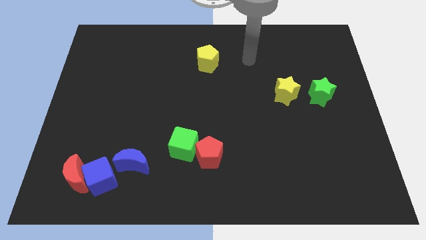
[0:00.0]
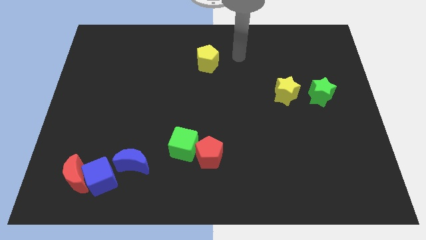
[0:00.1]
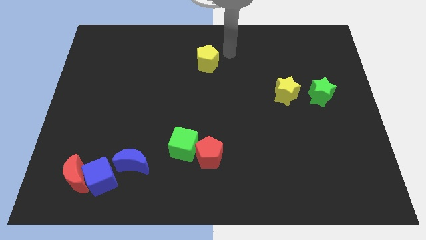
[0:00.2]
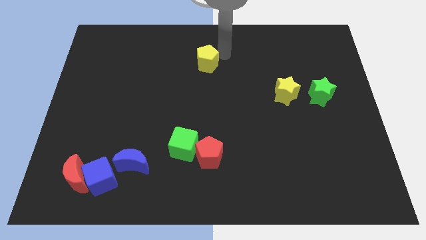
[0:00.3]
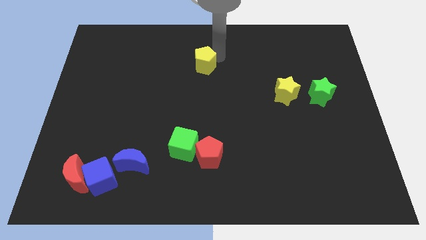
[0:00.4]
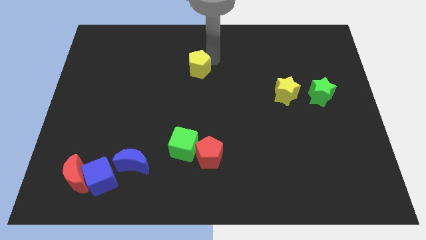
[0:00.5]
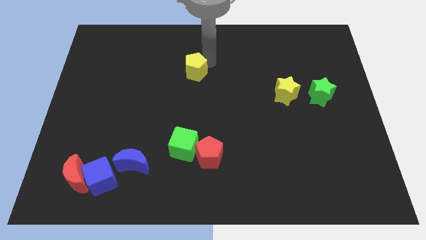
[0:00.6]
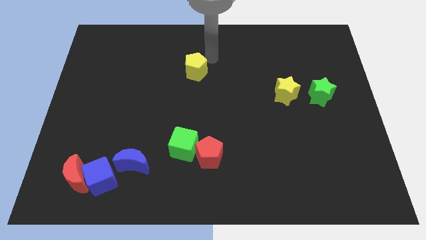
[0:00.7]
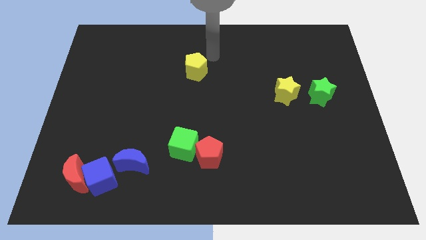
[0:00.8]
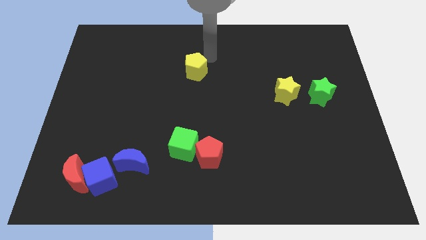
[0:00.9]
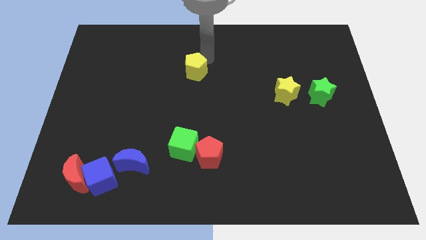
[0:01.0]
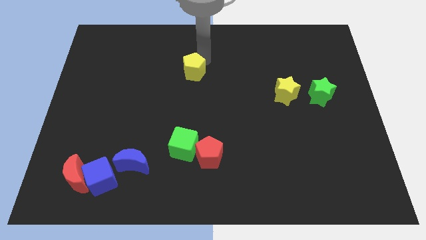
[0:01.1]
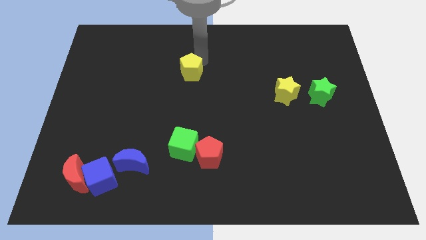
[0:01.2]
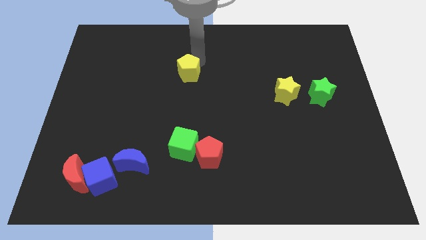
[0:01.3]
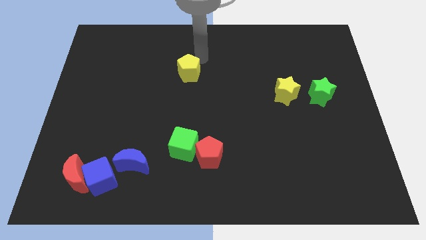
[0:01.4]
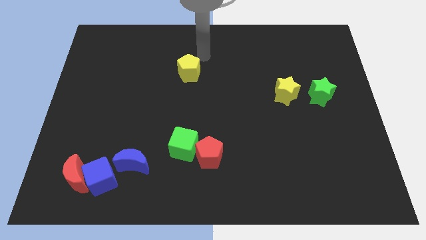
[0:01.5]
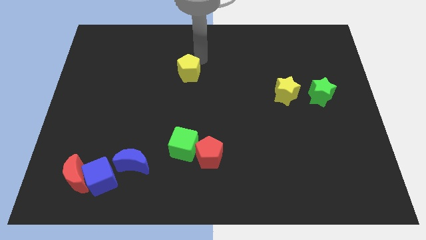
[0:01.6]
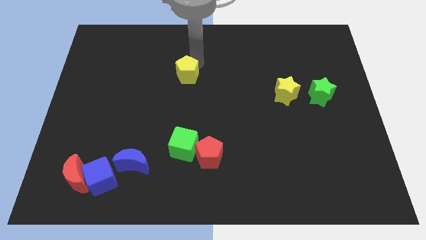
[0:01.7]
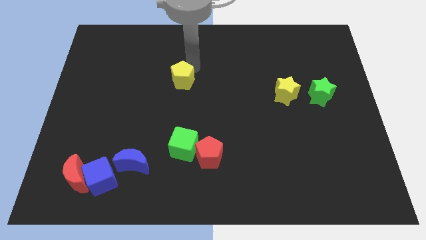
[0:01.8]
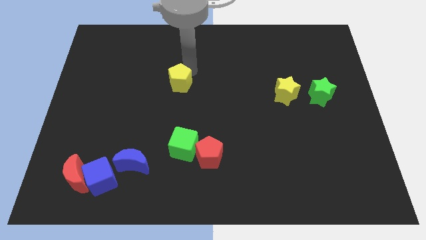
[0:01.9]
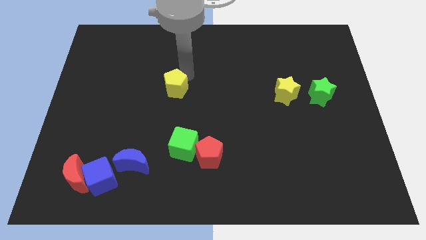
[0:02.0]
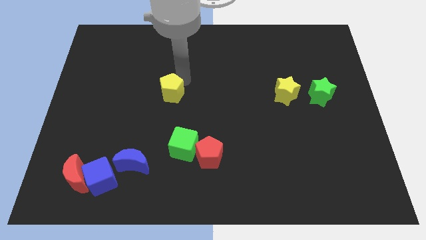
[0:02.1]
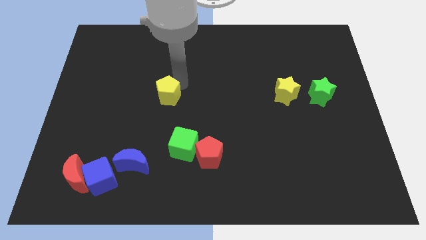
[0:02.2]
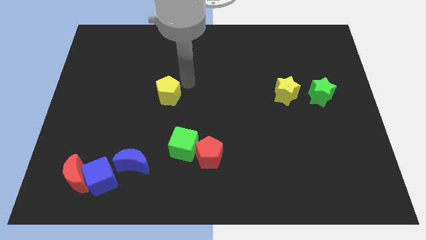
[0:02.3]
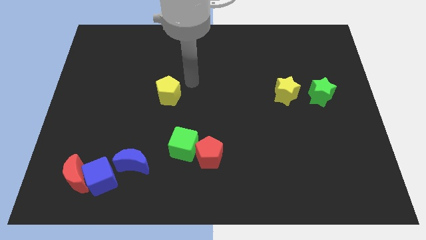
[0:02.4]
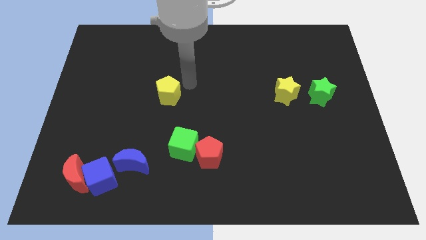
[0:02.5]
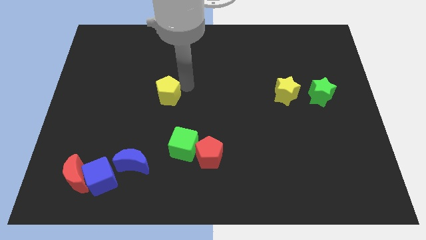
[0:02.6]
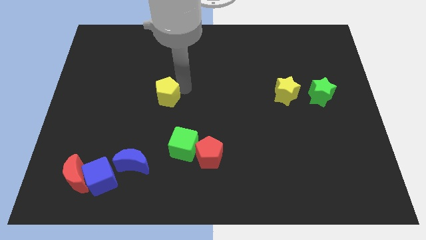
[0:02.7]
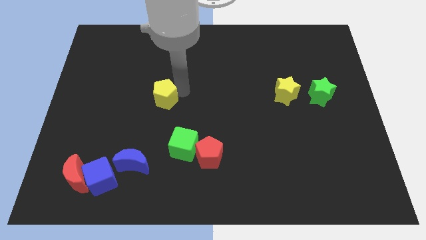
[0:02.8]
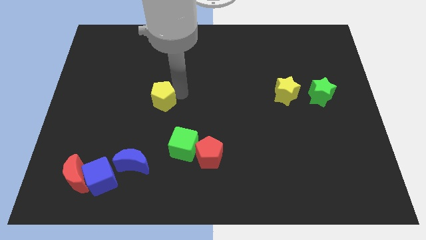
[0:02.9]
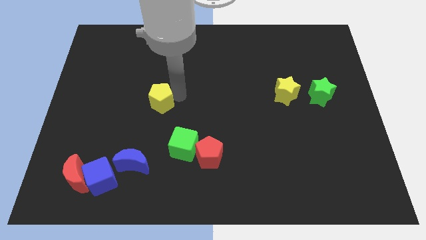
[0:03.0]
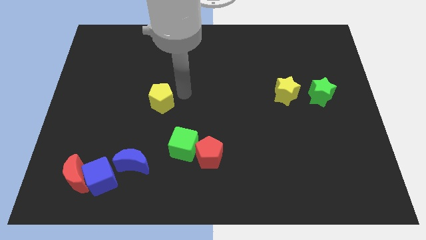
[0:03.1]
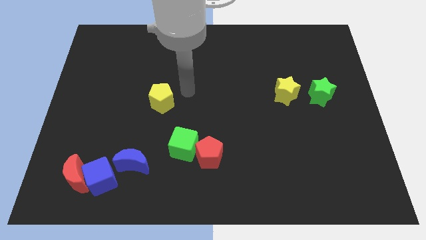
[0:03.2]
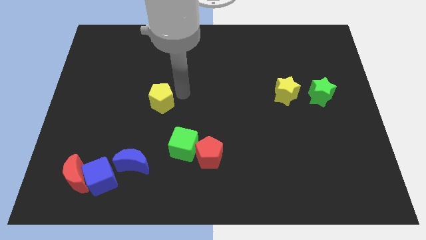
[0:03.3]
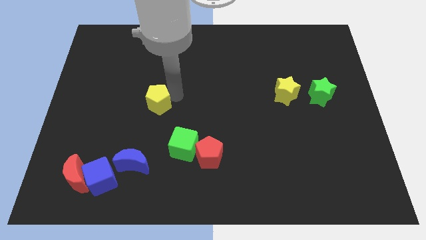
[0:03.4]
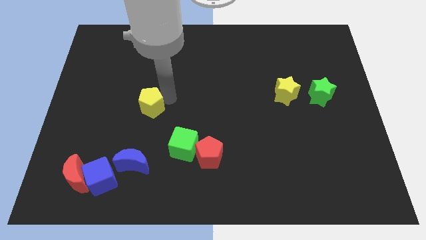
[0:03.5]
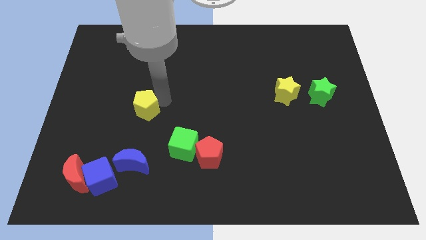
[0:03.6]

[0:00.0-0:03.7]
slide the yellow pentagon down and then to the left

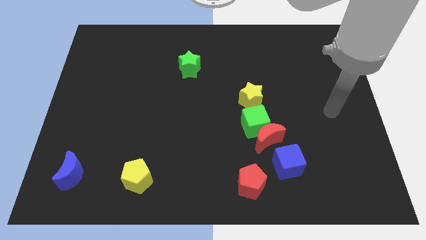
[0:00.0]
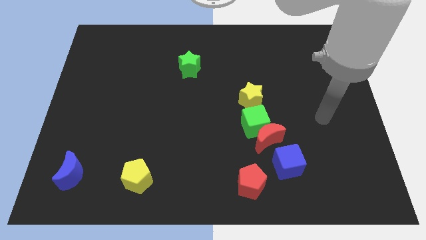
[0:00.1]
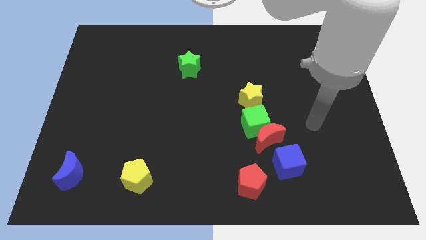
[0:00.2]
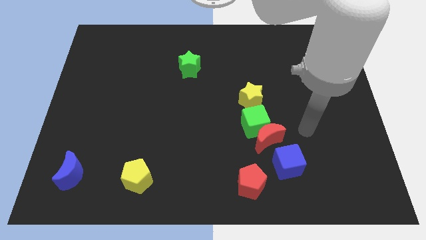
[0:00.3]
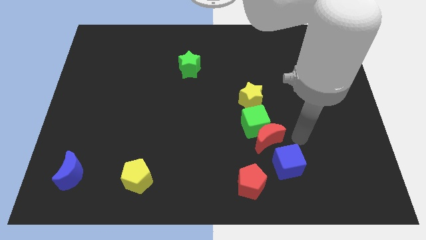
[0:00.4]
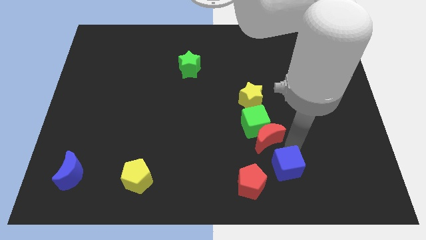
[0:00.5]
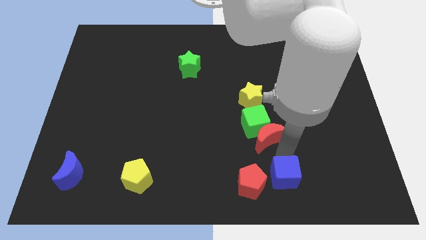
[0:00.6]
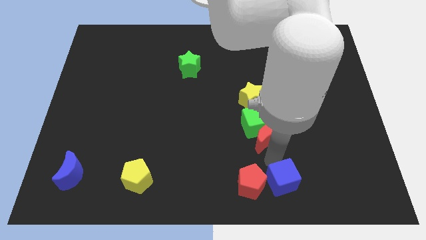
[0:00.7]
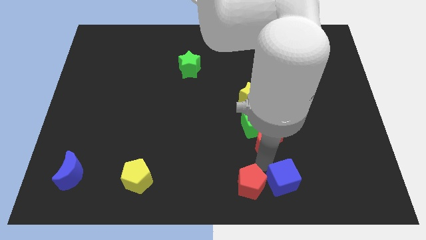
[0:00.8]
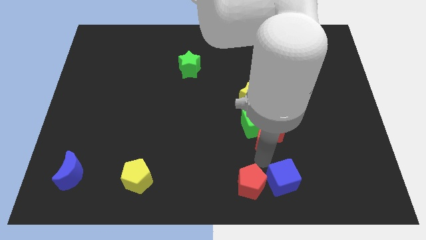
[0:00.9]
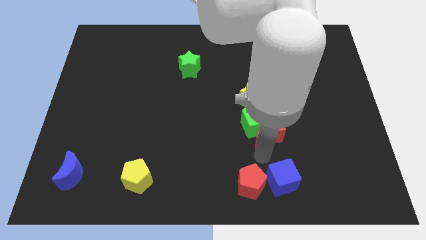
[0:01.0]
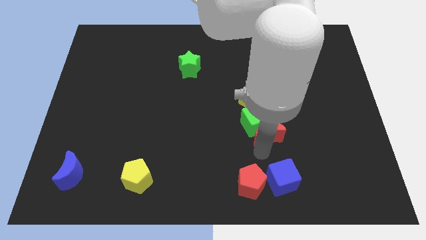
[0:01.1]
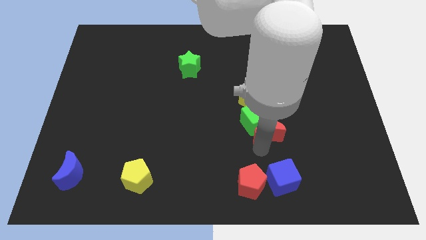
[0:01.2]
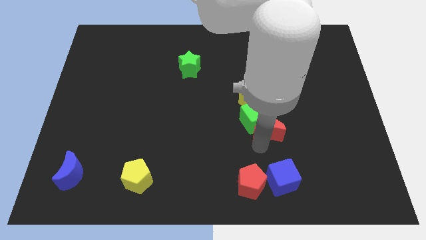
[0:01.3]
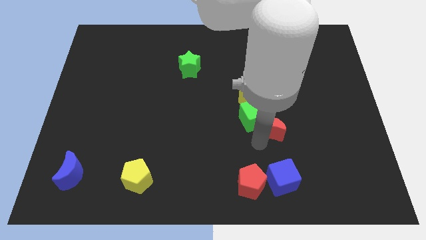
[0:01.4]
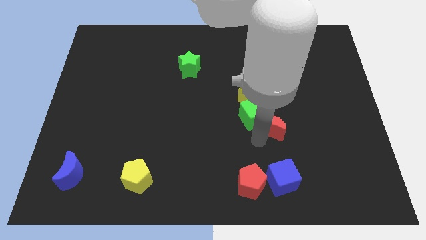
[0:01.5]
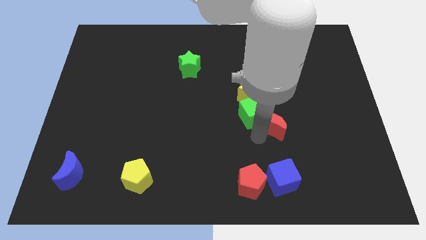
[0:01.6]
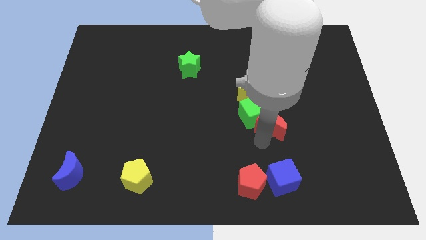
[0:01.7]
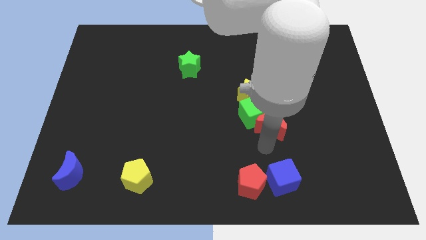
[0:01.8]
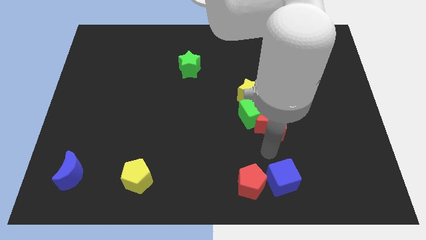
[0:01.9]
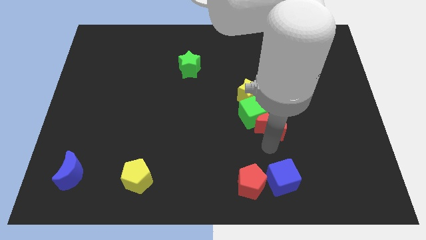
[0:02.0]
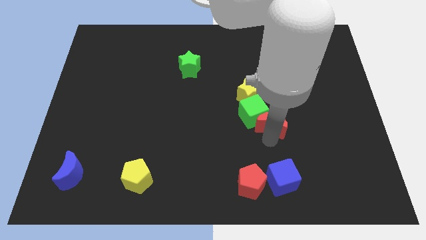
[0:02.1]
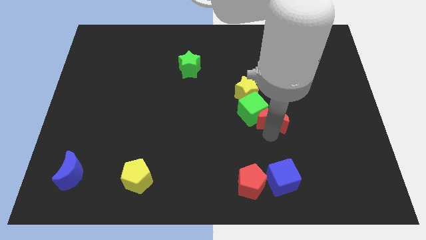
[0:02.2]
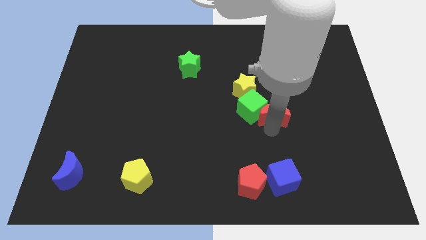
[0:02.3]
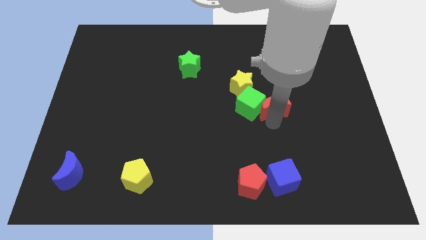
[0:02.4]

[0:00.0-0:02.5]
move the red moon a bit upwards

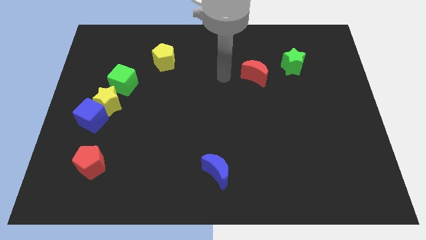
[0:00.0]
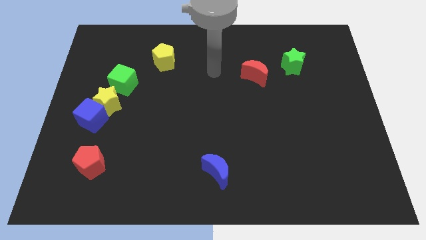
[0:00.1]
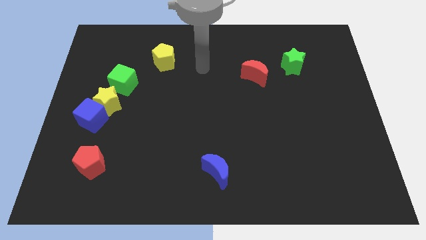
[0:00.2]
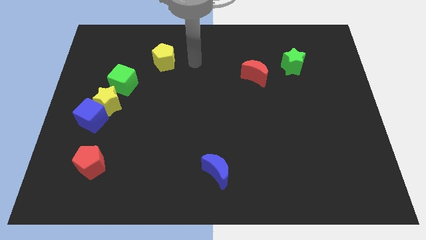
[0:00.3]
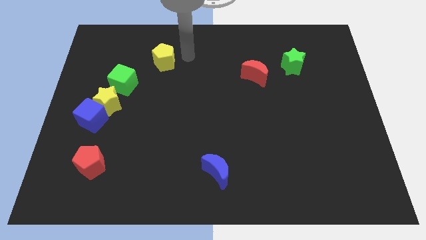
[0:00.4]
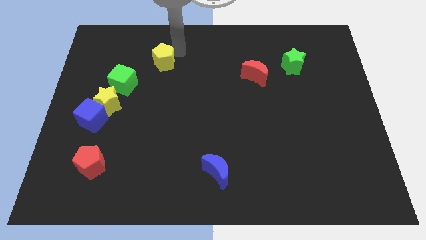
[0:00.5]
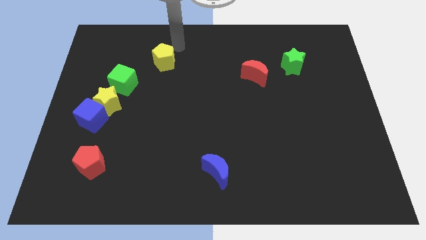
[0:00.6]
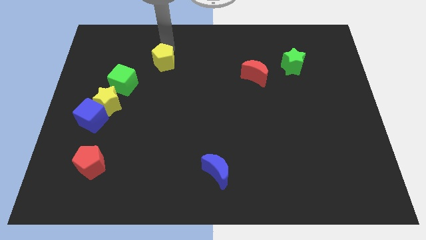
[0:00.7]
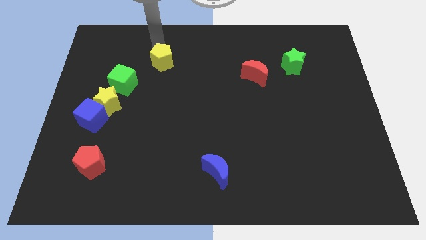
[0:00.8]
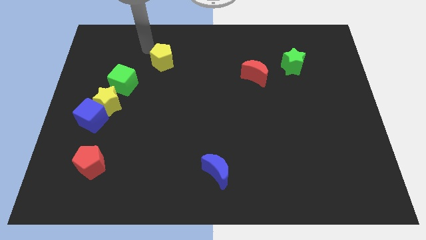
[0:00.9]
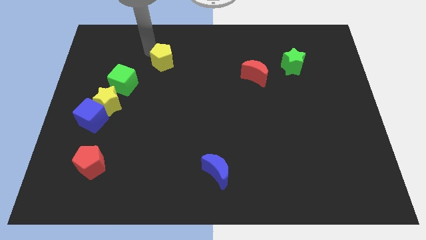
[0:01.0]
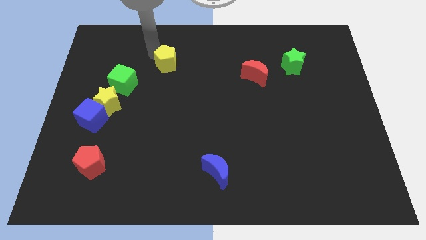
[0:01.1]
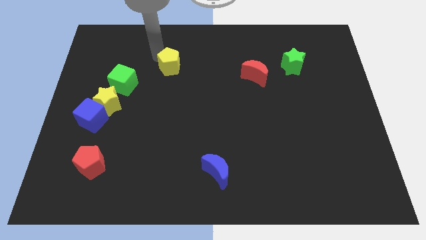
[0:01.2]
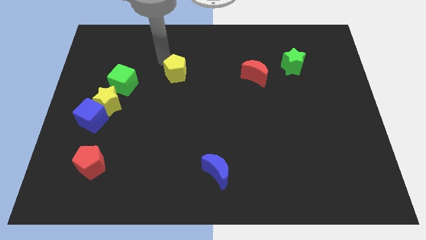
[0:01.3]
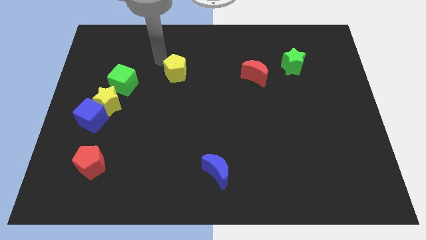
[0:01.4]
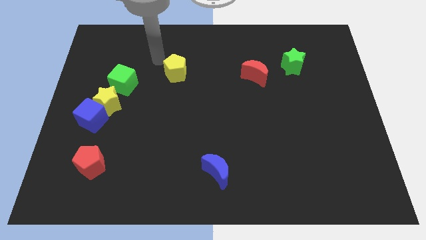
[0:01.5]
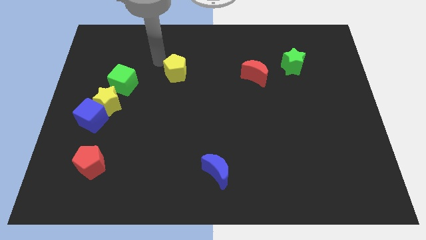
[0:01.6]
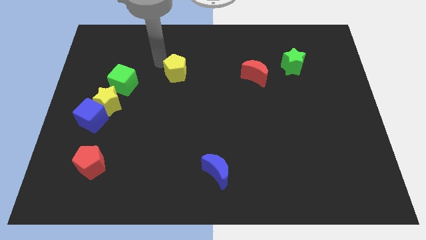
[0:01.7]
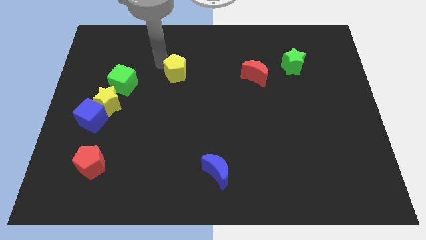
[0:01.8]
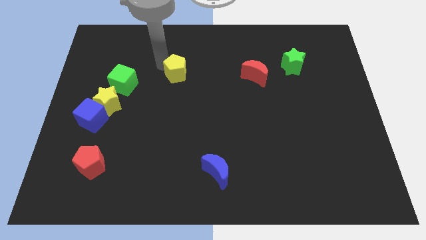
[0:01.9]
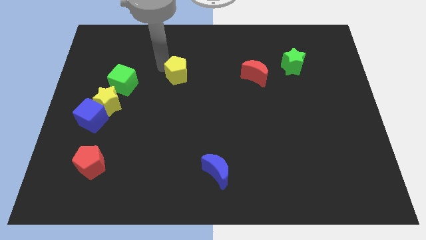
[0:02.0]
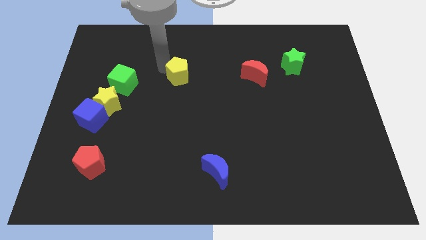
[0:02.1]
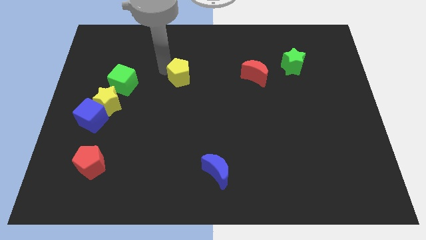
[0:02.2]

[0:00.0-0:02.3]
push the yellow pentagon down and right diagonally a little
